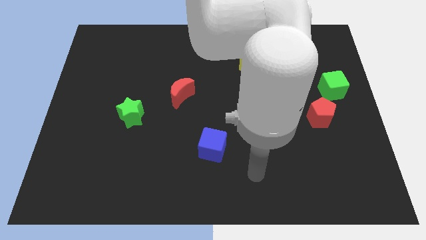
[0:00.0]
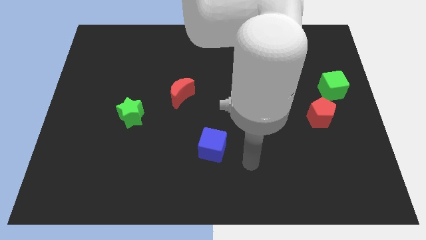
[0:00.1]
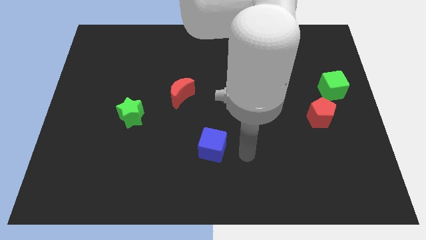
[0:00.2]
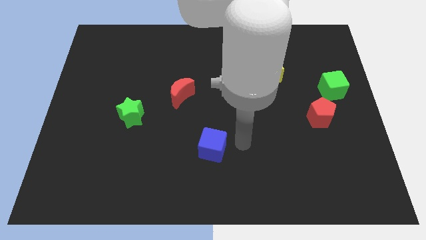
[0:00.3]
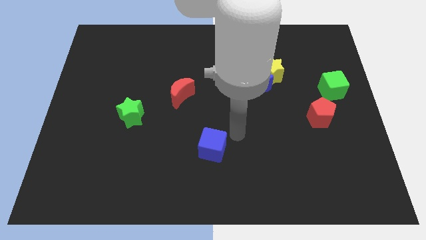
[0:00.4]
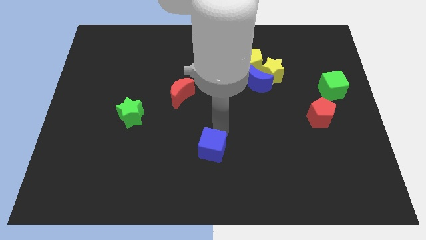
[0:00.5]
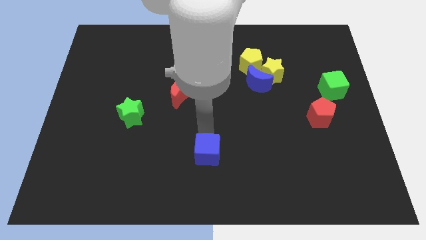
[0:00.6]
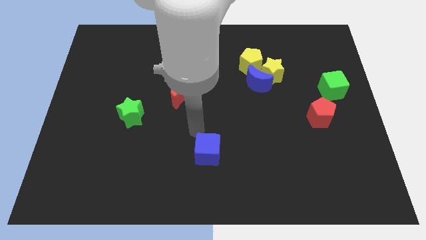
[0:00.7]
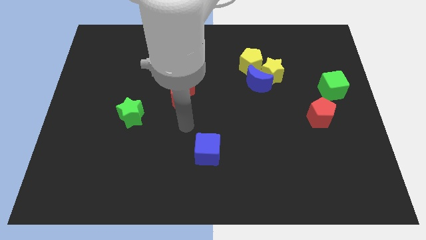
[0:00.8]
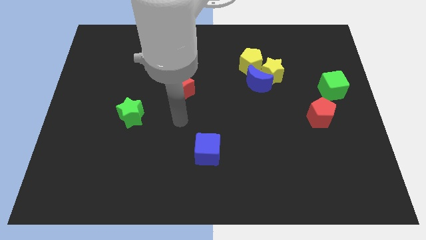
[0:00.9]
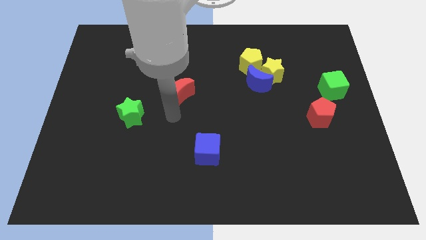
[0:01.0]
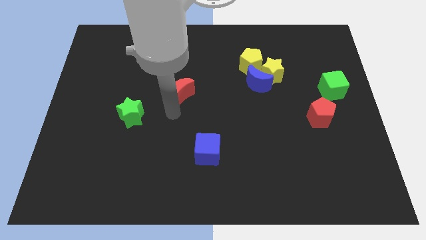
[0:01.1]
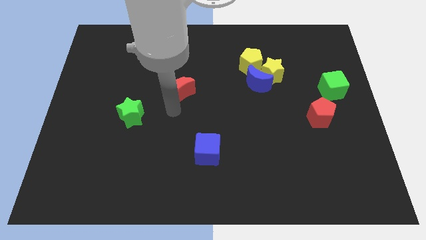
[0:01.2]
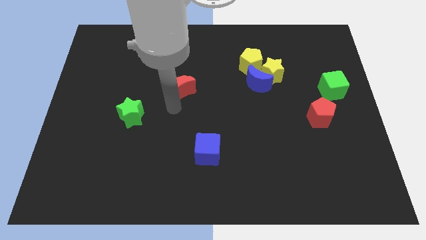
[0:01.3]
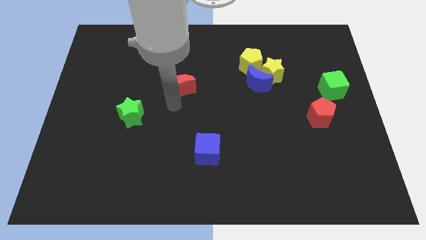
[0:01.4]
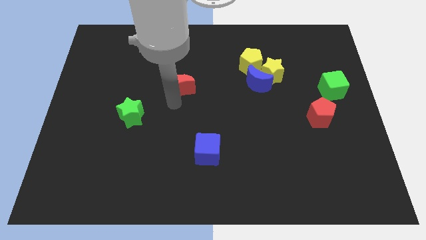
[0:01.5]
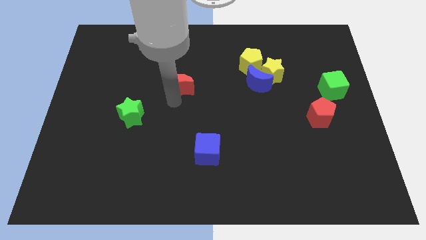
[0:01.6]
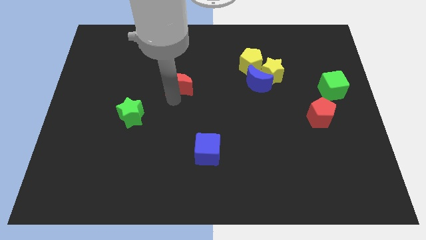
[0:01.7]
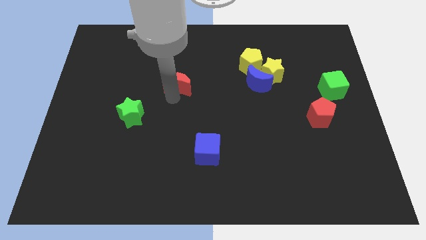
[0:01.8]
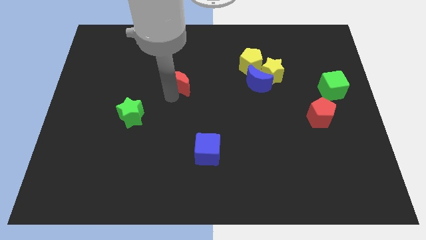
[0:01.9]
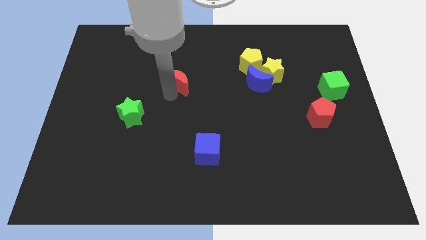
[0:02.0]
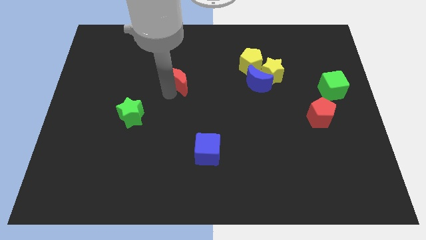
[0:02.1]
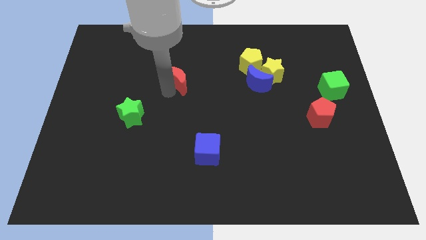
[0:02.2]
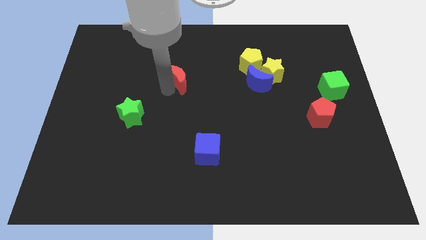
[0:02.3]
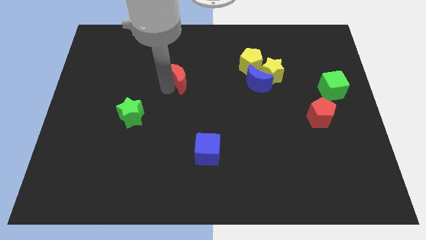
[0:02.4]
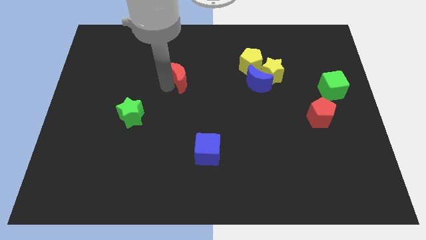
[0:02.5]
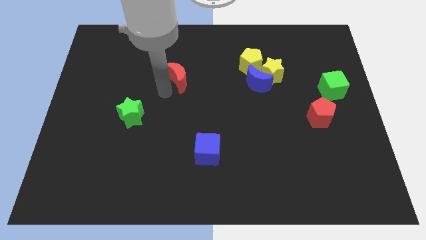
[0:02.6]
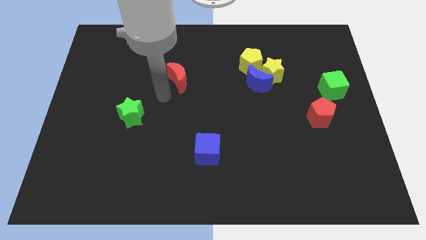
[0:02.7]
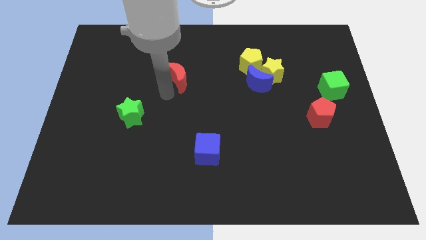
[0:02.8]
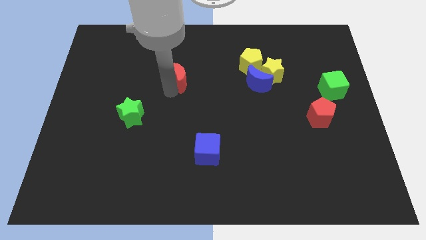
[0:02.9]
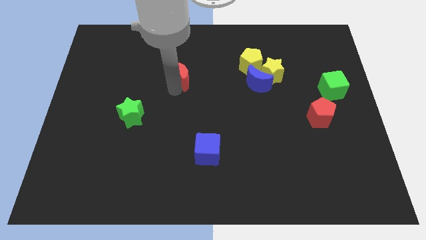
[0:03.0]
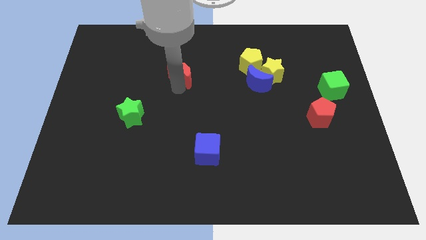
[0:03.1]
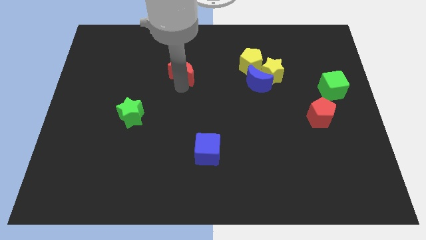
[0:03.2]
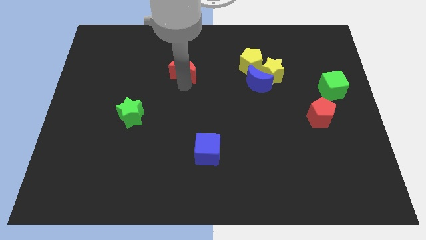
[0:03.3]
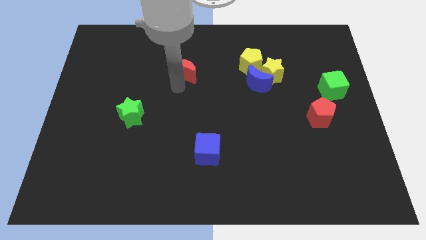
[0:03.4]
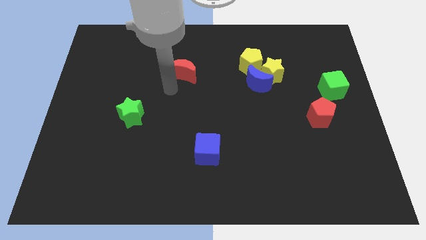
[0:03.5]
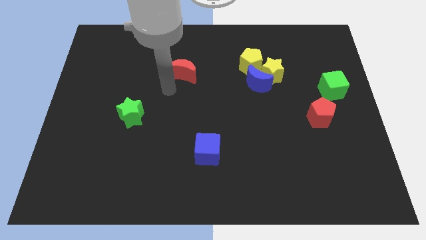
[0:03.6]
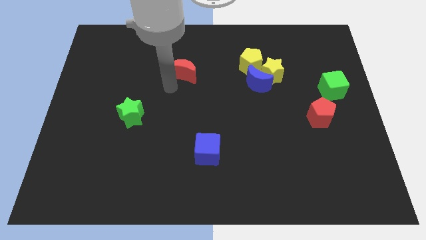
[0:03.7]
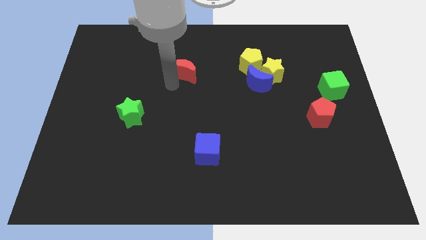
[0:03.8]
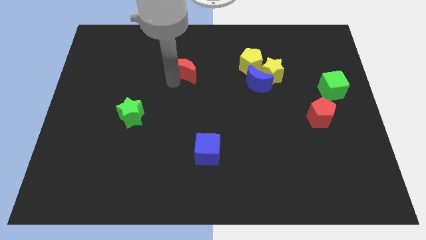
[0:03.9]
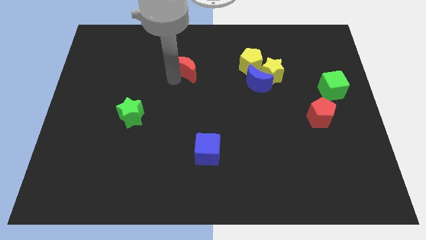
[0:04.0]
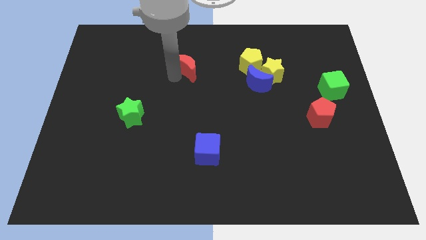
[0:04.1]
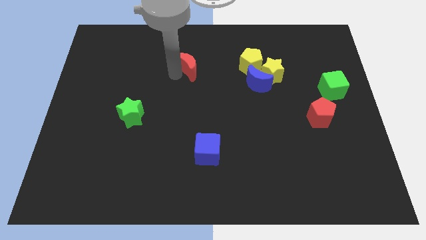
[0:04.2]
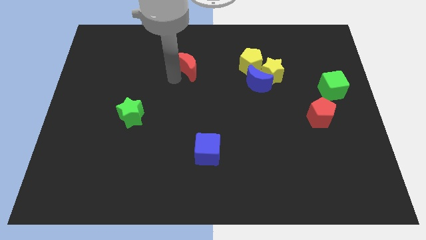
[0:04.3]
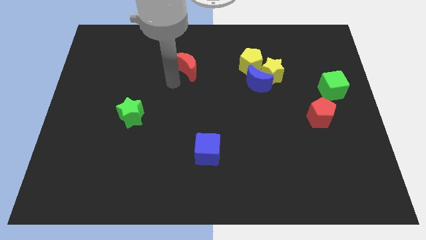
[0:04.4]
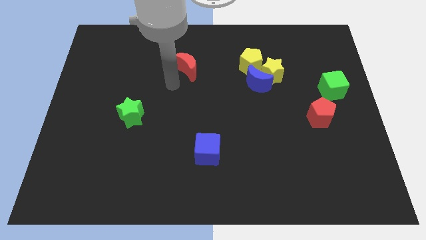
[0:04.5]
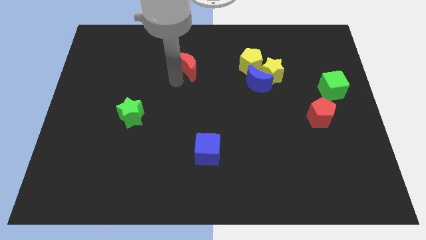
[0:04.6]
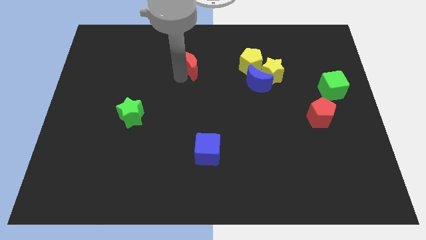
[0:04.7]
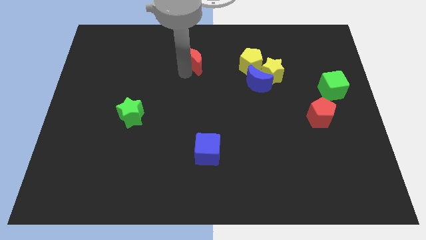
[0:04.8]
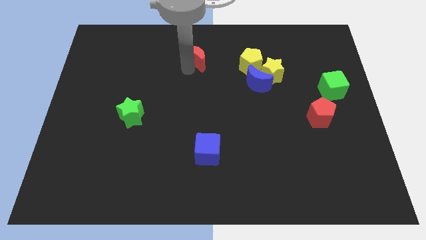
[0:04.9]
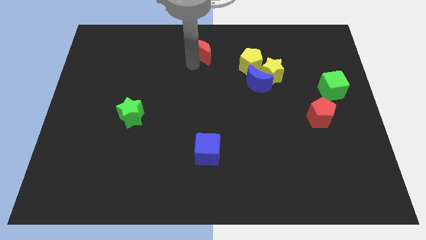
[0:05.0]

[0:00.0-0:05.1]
slide the red moon to the top

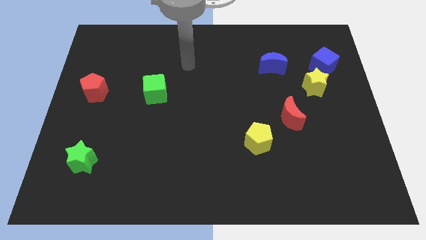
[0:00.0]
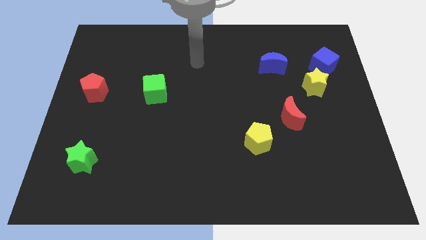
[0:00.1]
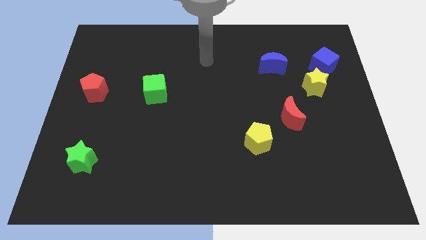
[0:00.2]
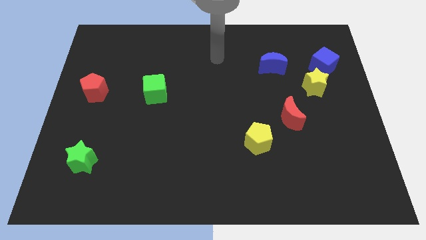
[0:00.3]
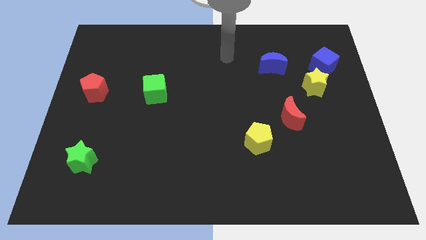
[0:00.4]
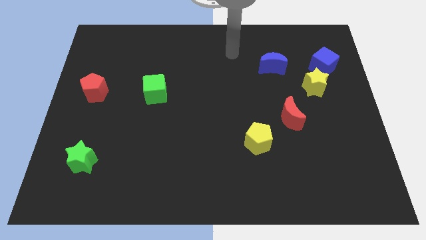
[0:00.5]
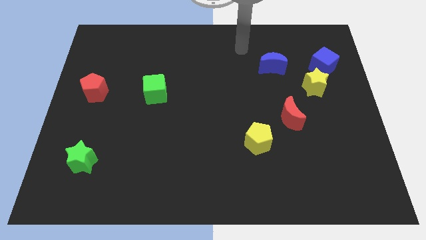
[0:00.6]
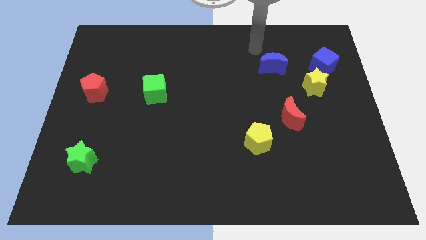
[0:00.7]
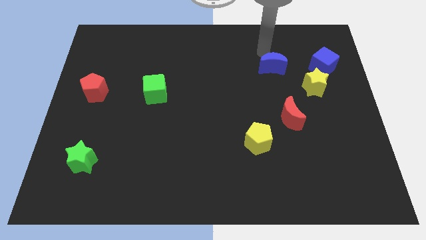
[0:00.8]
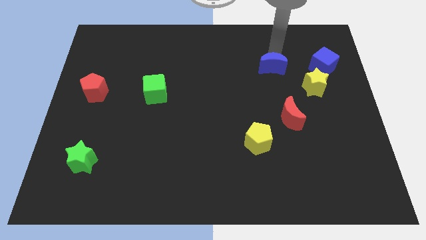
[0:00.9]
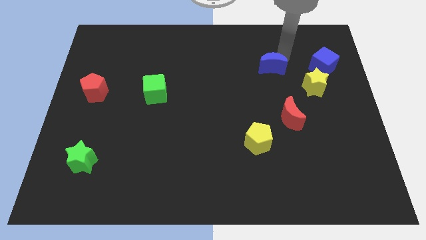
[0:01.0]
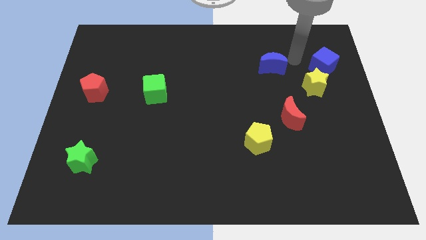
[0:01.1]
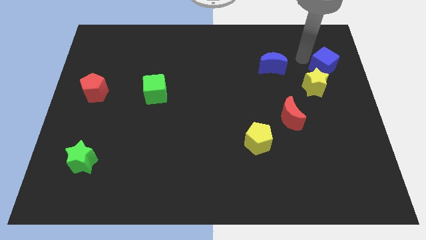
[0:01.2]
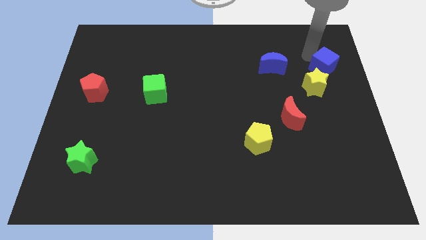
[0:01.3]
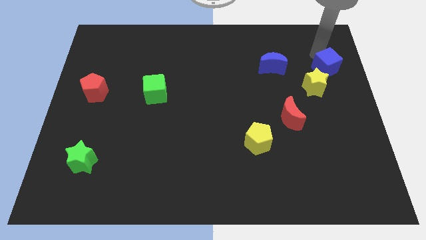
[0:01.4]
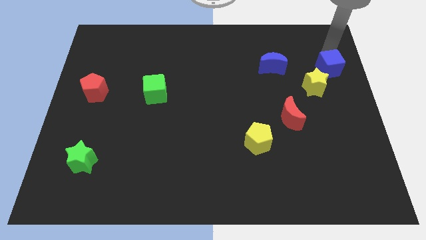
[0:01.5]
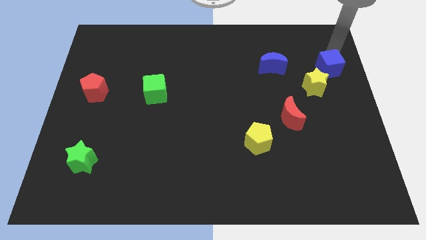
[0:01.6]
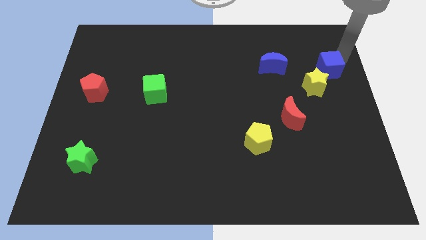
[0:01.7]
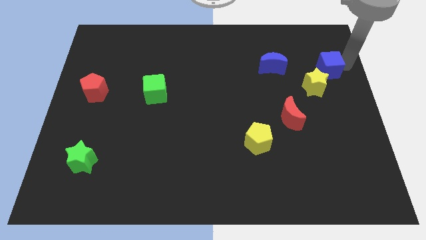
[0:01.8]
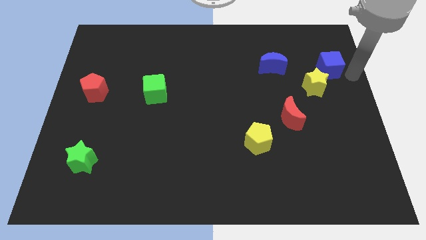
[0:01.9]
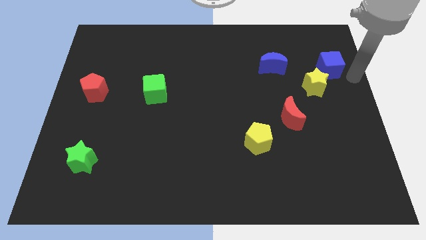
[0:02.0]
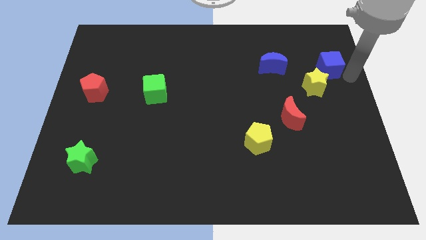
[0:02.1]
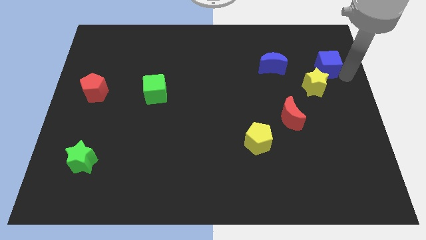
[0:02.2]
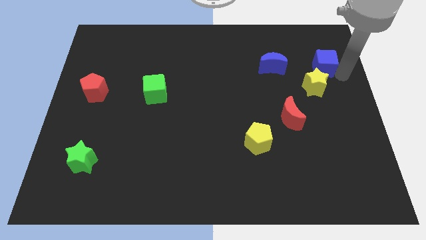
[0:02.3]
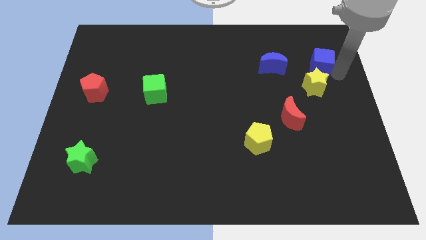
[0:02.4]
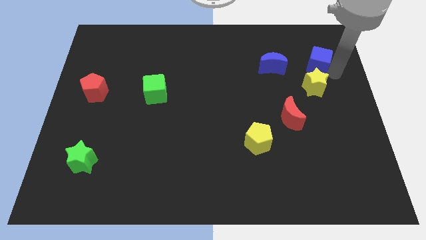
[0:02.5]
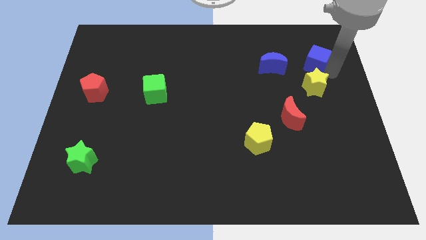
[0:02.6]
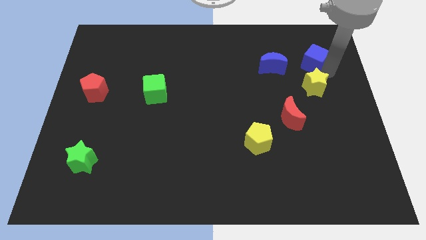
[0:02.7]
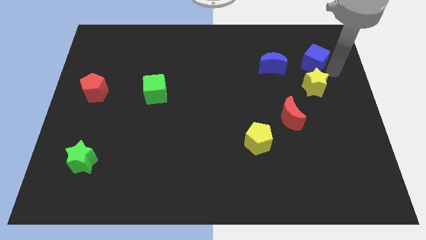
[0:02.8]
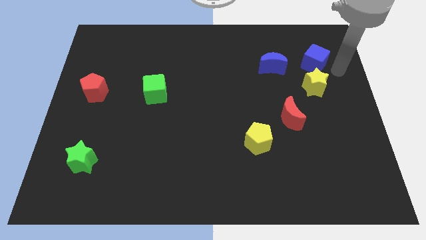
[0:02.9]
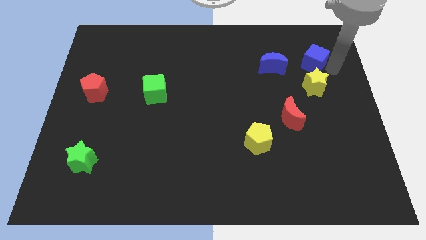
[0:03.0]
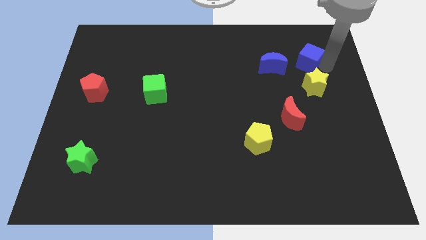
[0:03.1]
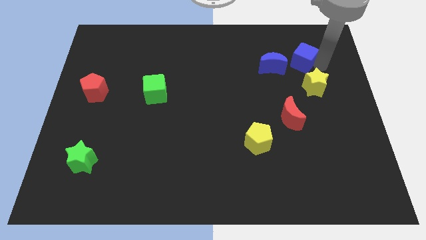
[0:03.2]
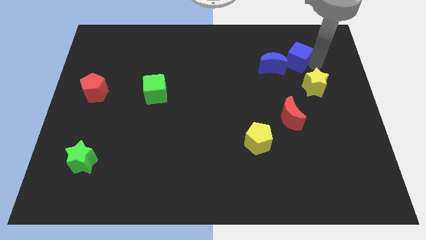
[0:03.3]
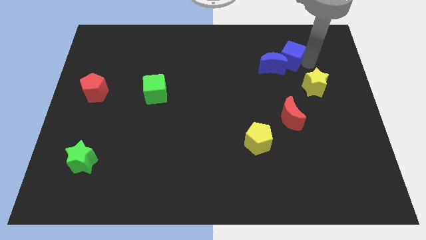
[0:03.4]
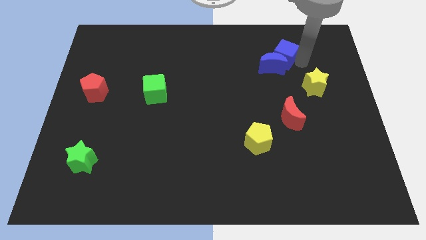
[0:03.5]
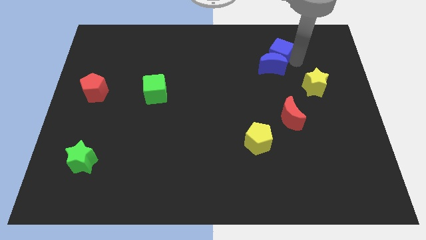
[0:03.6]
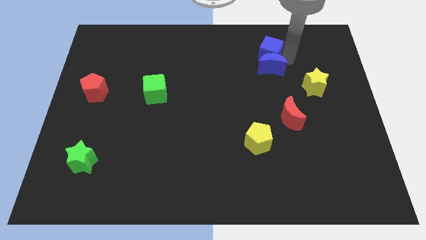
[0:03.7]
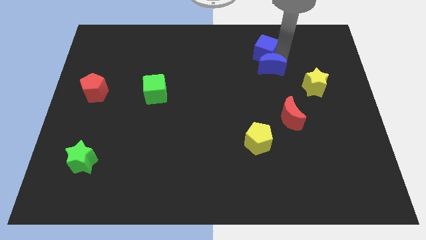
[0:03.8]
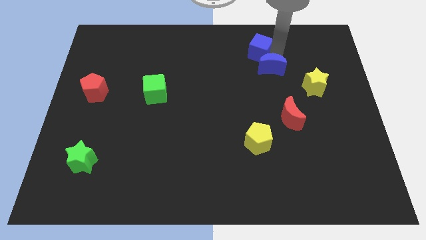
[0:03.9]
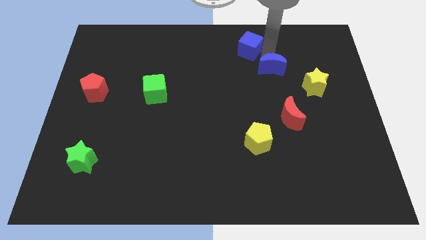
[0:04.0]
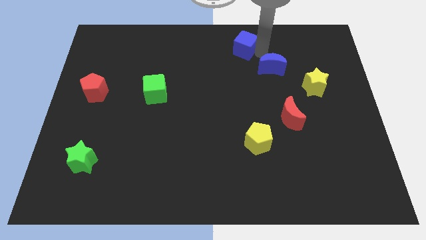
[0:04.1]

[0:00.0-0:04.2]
push the blue cube to the towards your base
